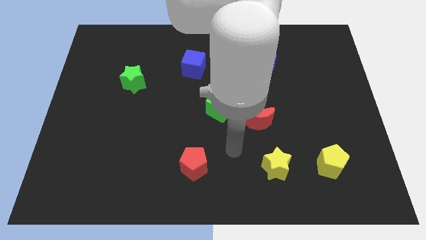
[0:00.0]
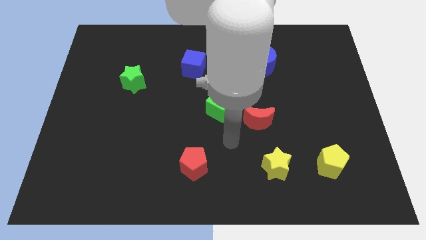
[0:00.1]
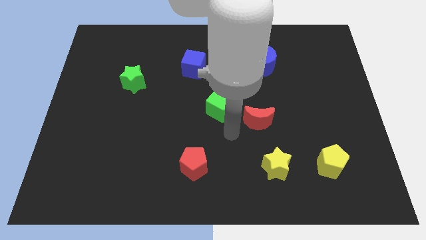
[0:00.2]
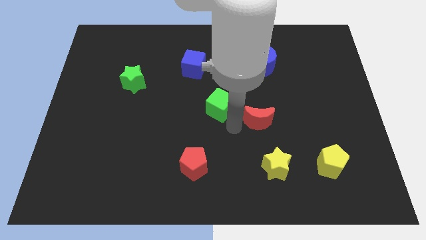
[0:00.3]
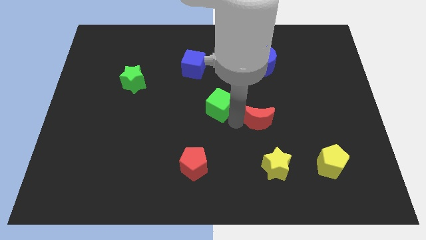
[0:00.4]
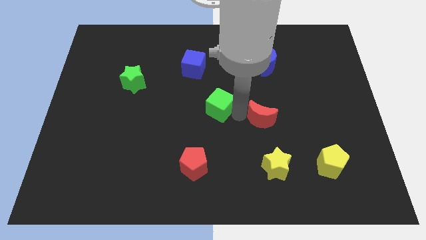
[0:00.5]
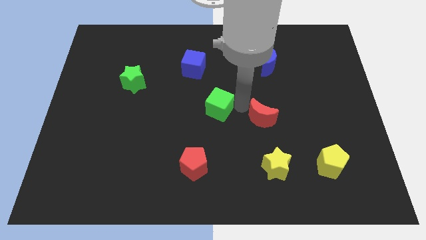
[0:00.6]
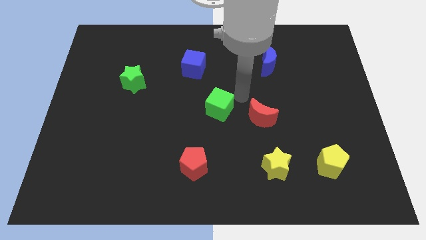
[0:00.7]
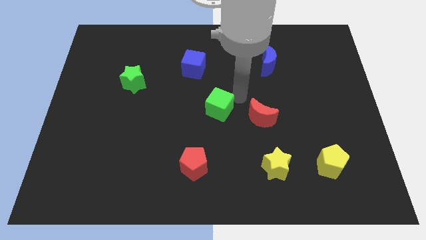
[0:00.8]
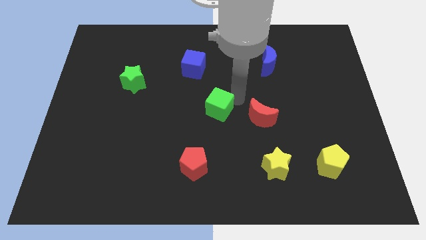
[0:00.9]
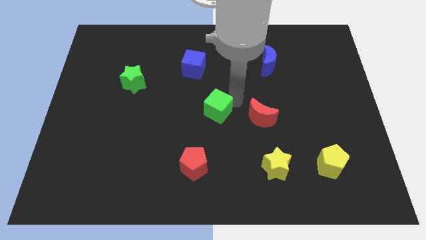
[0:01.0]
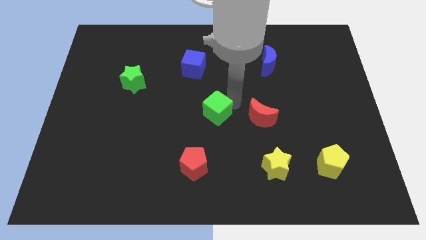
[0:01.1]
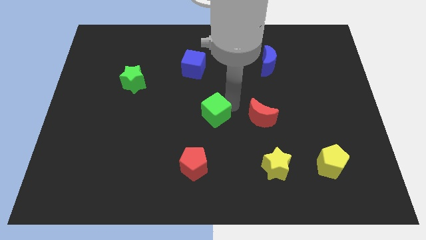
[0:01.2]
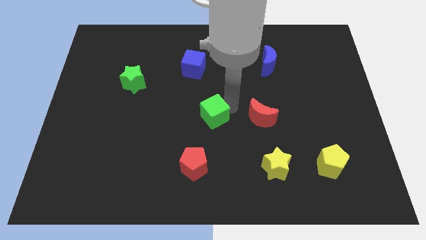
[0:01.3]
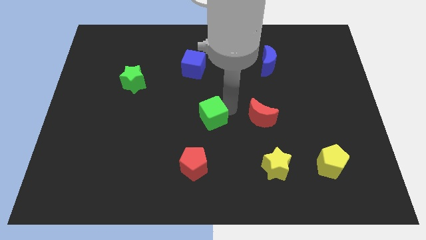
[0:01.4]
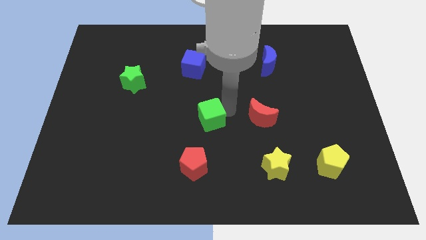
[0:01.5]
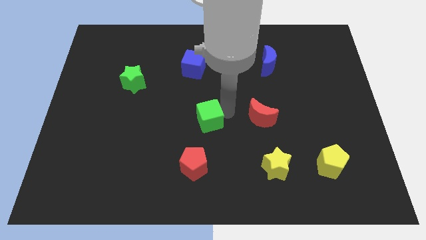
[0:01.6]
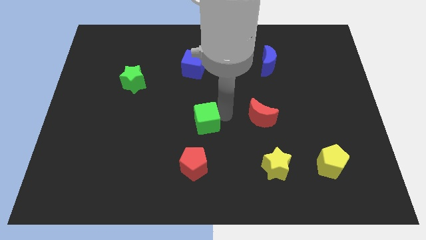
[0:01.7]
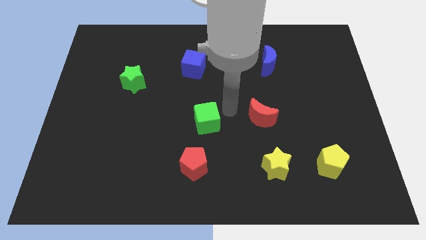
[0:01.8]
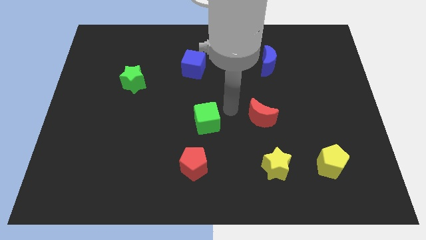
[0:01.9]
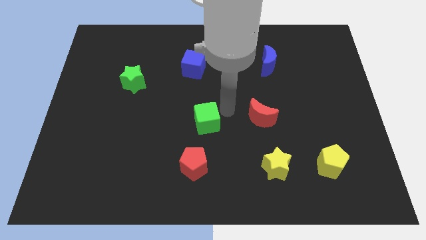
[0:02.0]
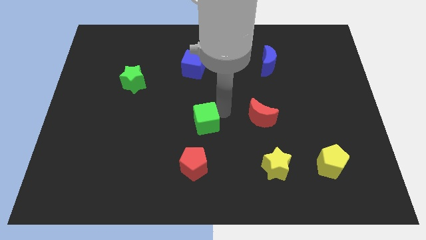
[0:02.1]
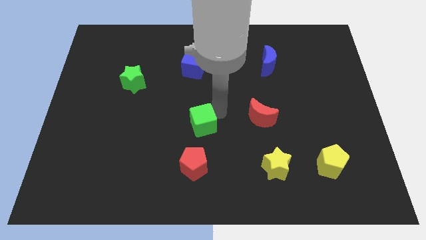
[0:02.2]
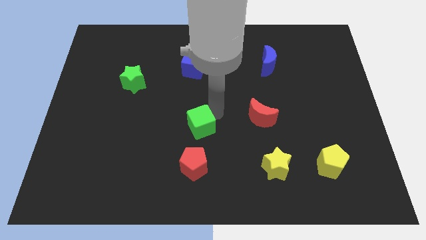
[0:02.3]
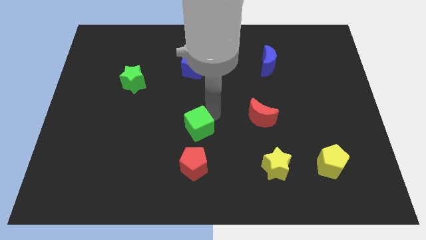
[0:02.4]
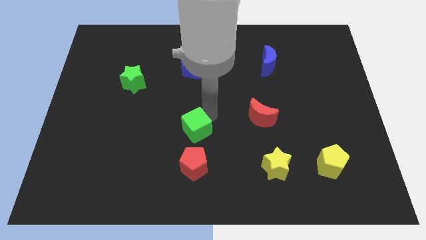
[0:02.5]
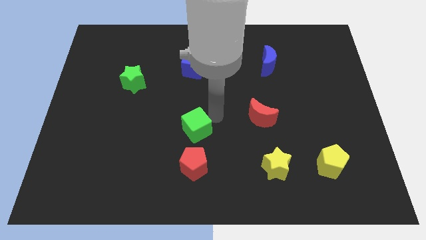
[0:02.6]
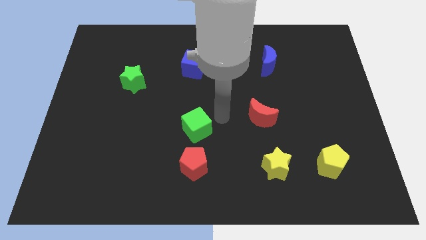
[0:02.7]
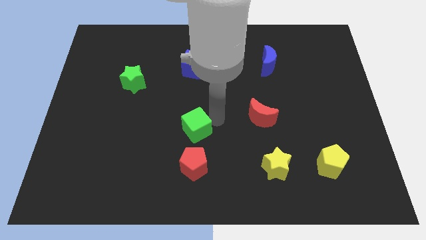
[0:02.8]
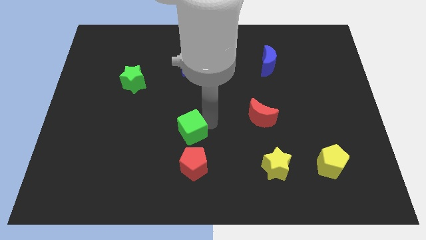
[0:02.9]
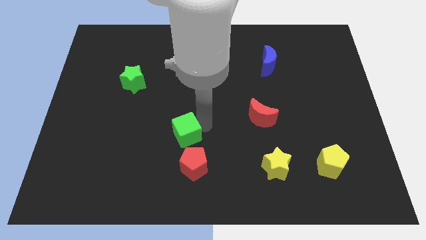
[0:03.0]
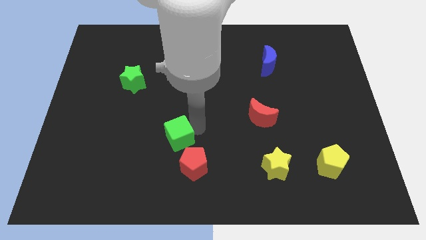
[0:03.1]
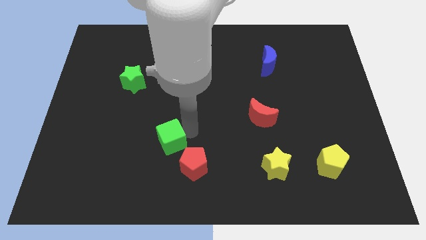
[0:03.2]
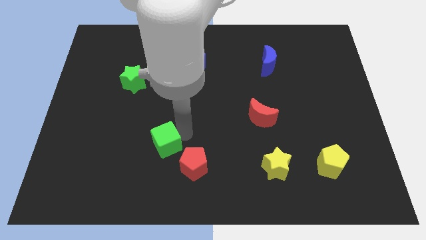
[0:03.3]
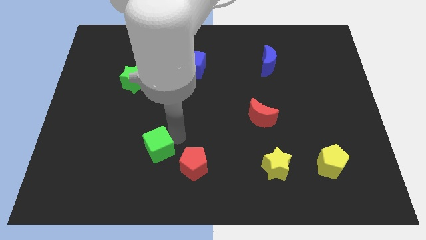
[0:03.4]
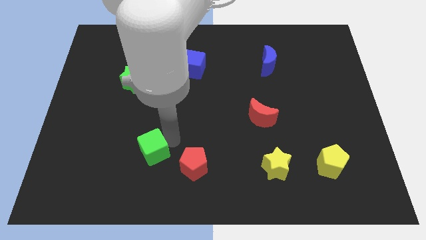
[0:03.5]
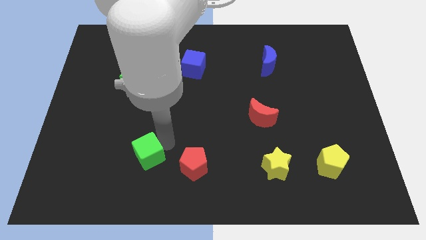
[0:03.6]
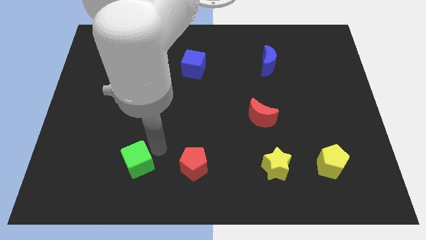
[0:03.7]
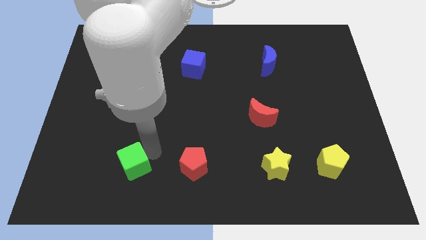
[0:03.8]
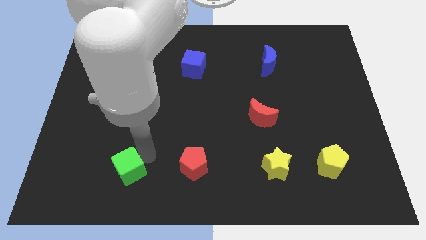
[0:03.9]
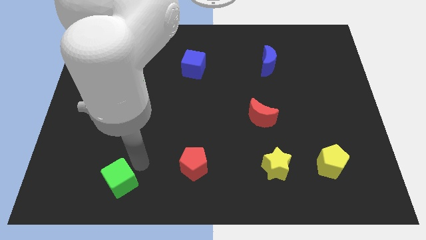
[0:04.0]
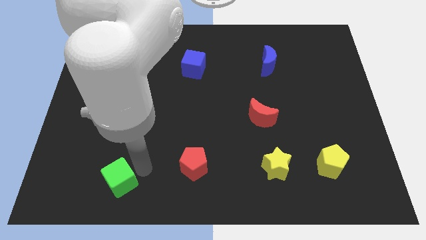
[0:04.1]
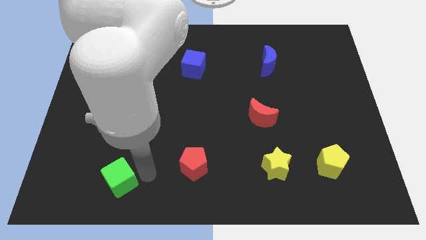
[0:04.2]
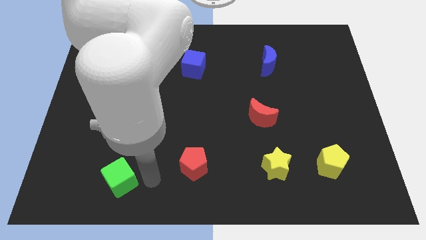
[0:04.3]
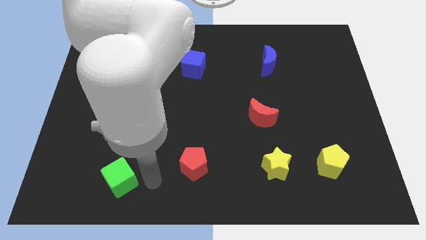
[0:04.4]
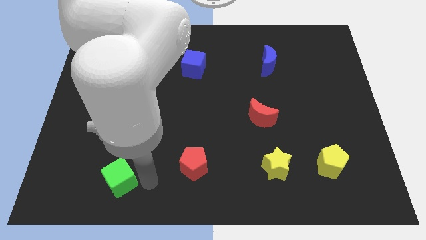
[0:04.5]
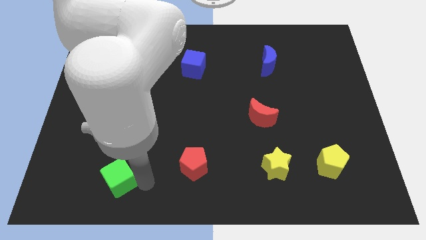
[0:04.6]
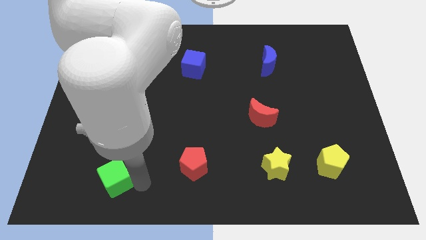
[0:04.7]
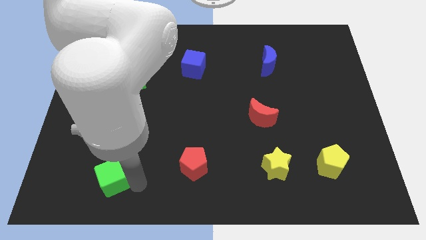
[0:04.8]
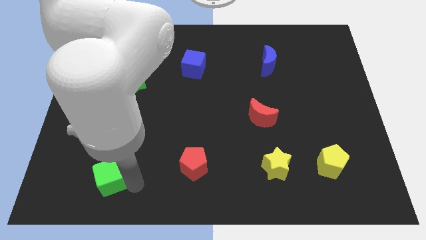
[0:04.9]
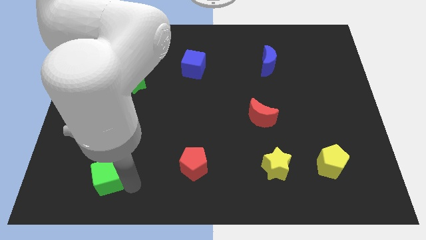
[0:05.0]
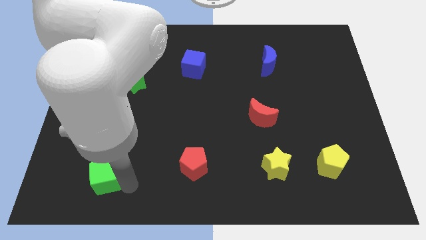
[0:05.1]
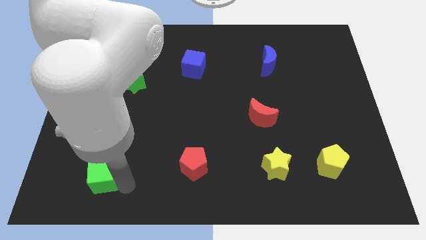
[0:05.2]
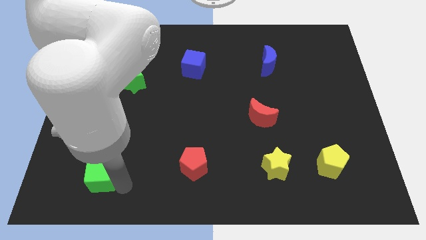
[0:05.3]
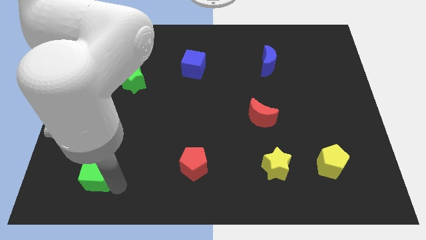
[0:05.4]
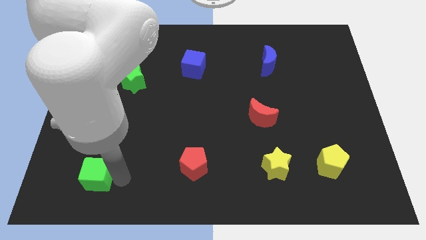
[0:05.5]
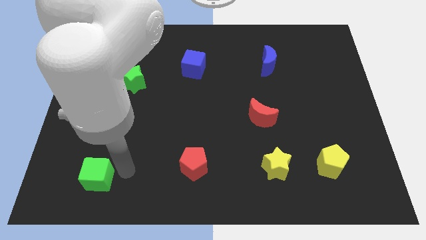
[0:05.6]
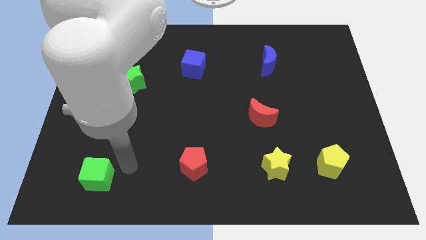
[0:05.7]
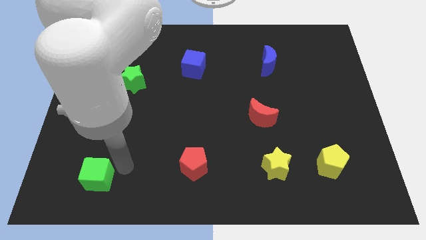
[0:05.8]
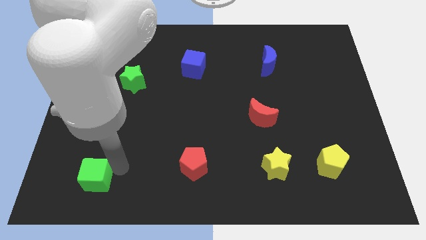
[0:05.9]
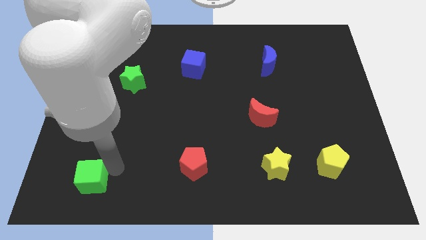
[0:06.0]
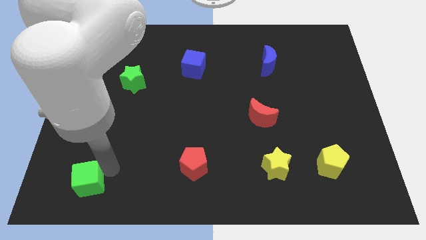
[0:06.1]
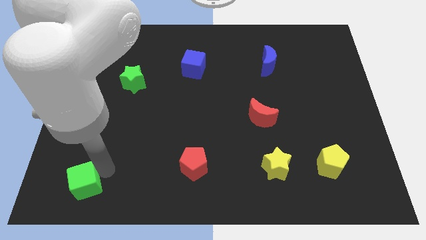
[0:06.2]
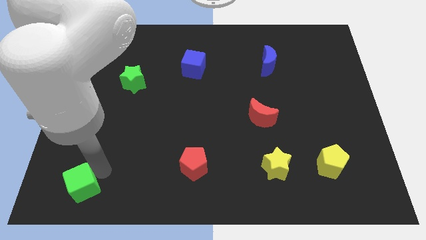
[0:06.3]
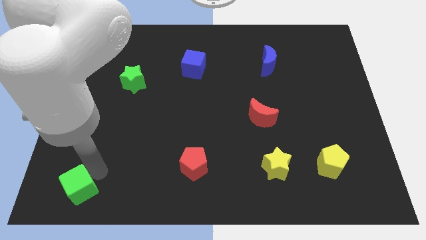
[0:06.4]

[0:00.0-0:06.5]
put the green cube to the bottom left
